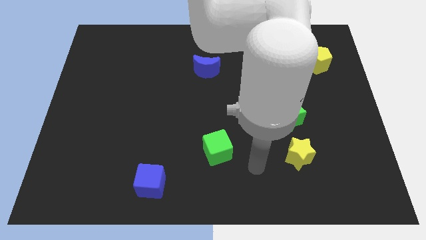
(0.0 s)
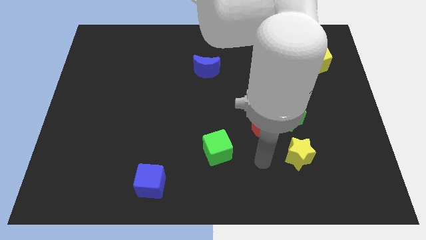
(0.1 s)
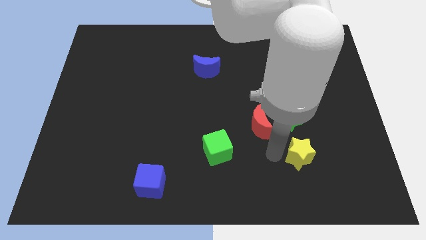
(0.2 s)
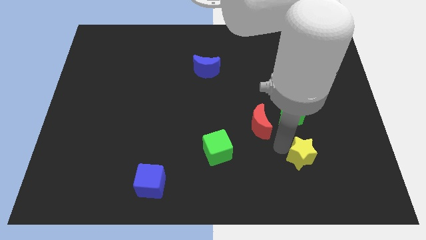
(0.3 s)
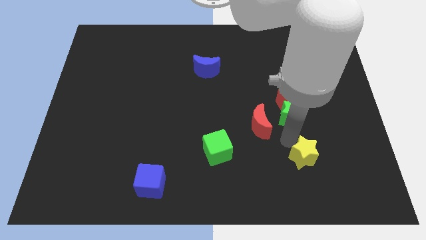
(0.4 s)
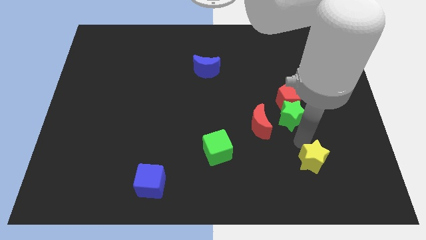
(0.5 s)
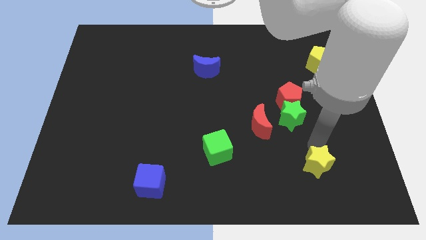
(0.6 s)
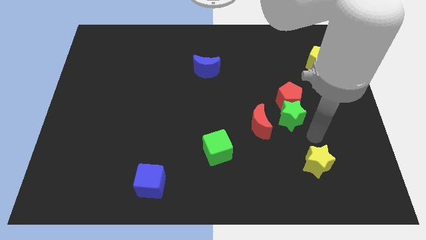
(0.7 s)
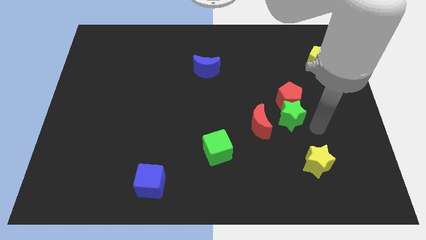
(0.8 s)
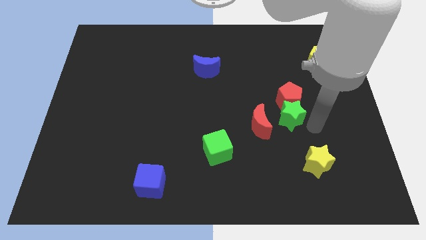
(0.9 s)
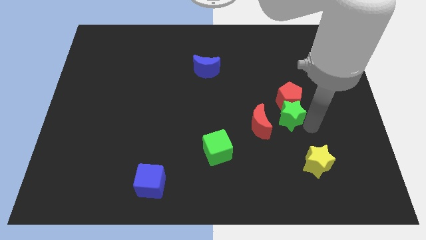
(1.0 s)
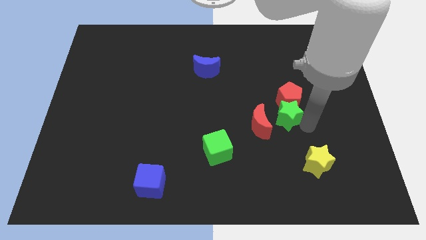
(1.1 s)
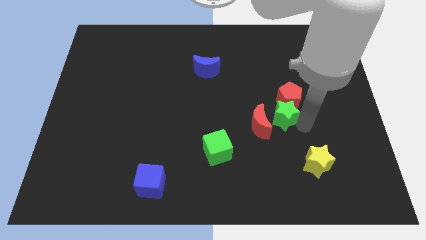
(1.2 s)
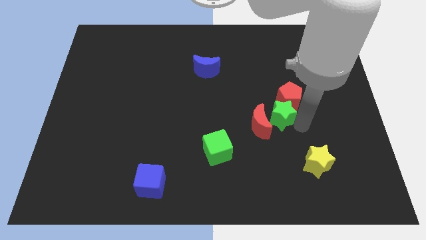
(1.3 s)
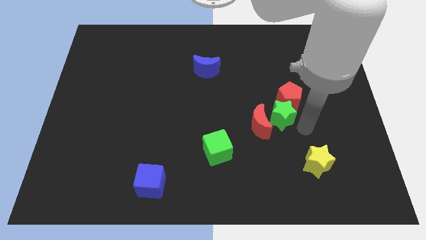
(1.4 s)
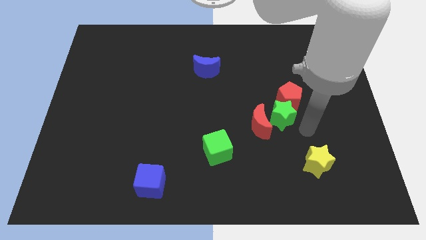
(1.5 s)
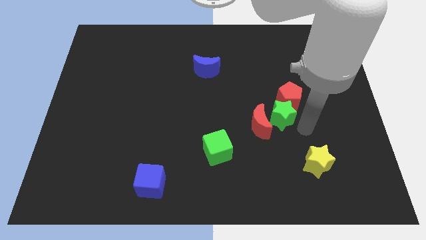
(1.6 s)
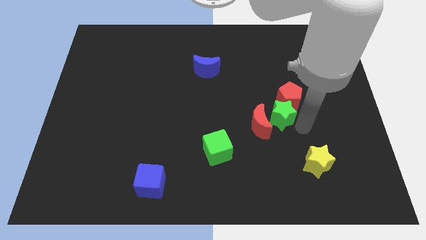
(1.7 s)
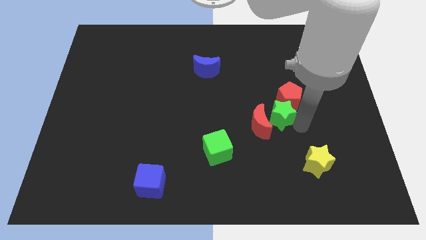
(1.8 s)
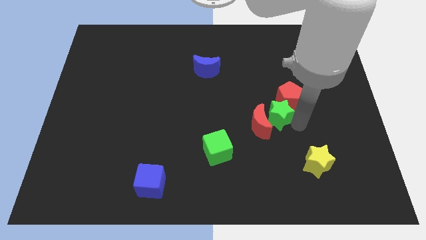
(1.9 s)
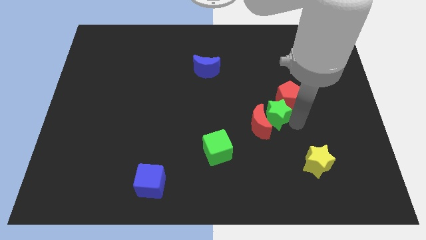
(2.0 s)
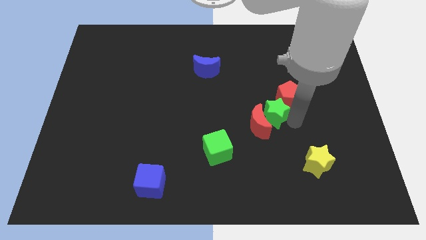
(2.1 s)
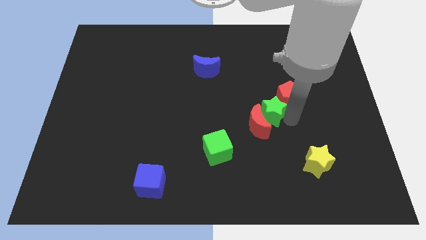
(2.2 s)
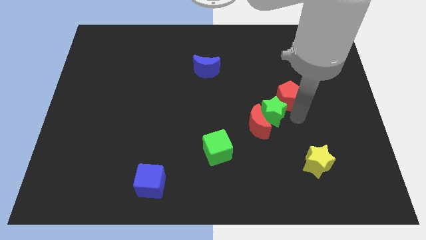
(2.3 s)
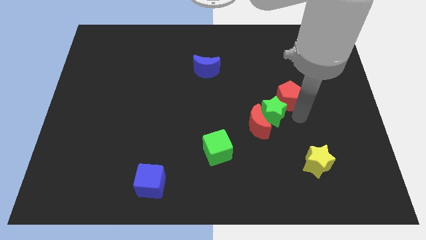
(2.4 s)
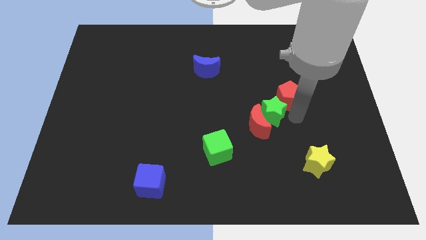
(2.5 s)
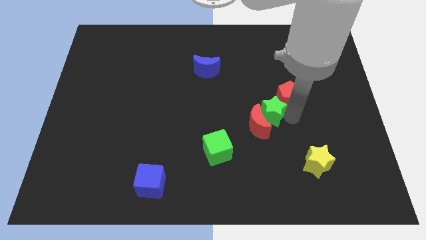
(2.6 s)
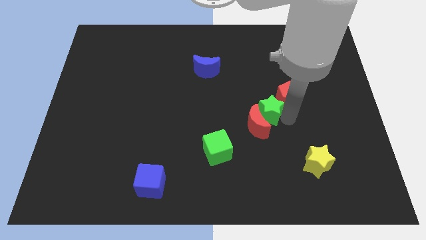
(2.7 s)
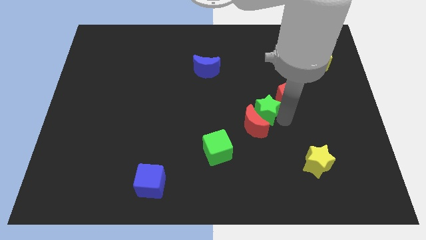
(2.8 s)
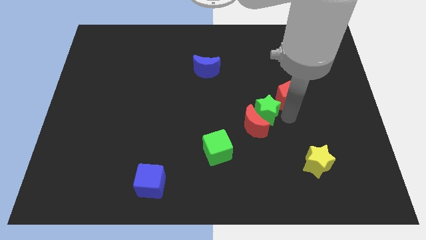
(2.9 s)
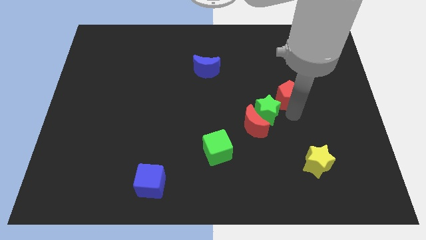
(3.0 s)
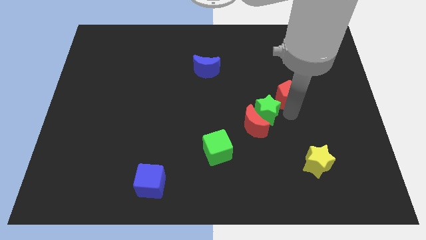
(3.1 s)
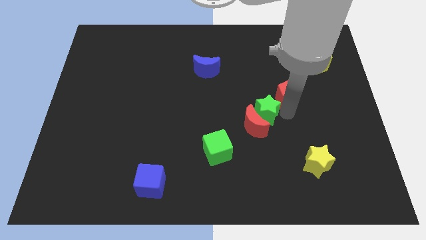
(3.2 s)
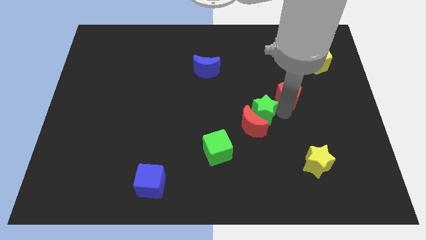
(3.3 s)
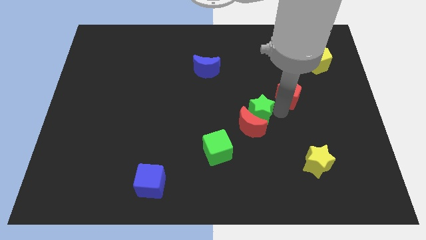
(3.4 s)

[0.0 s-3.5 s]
slide the green star left slightly

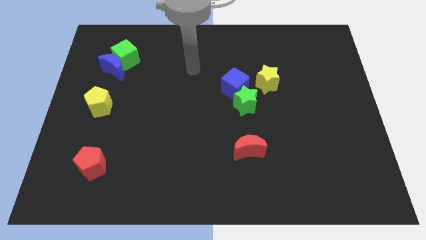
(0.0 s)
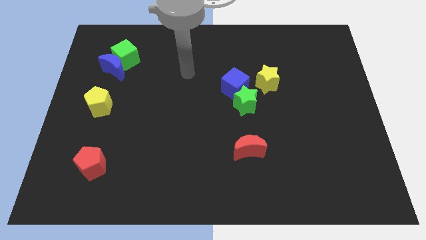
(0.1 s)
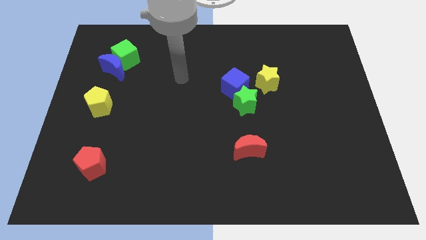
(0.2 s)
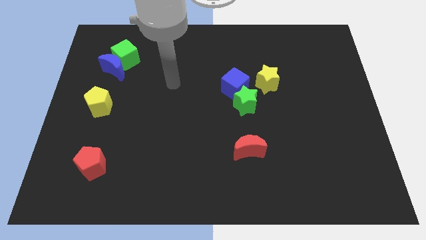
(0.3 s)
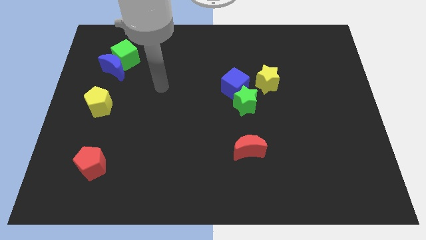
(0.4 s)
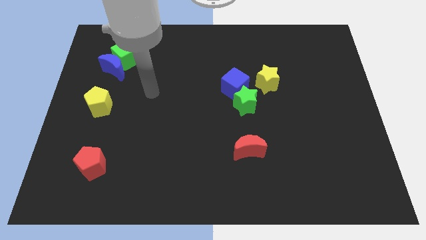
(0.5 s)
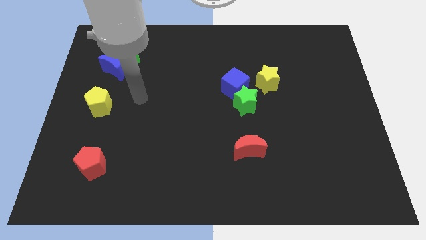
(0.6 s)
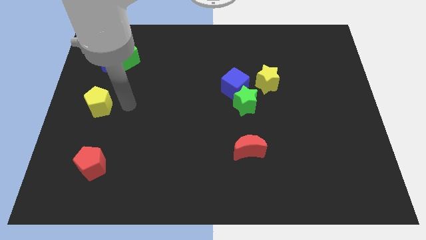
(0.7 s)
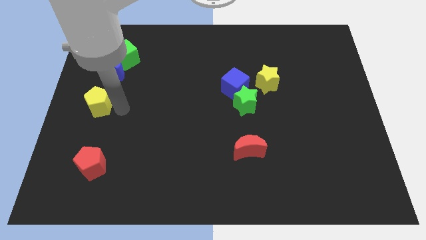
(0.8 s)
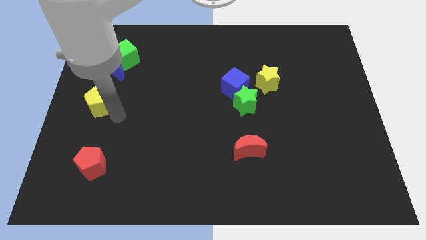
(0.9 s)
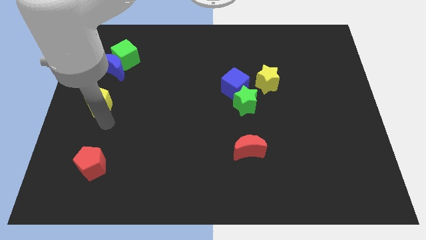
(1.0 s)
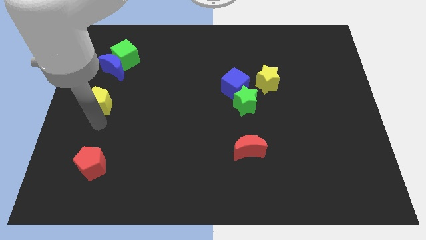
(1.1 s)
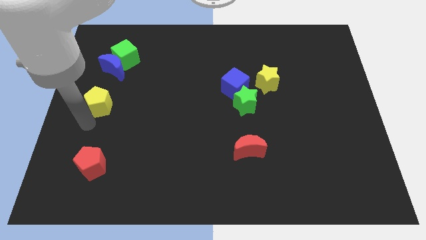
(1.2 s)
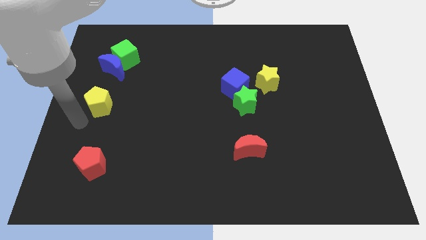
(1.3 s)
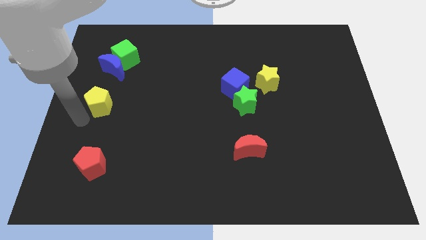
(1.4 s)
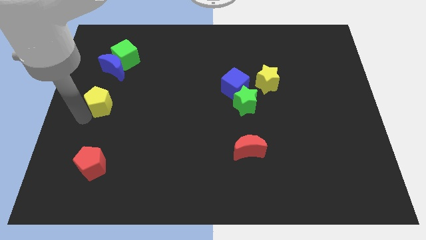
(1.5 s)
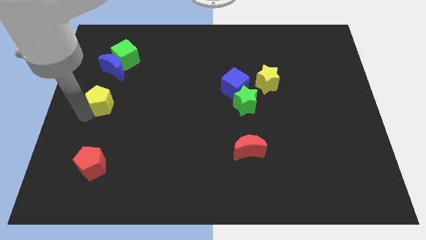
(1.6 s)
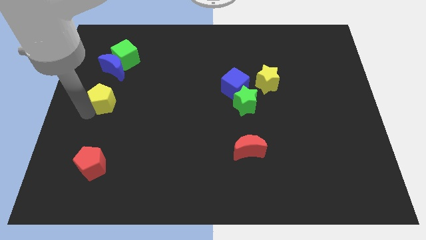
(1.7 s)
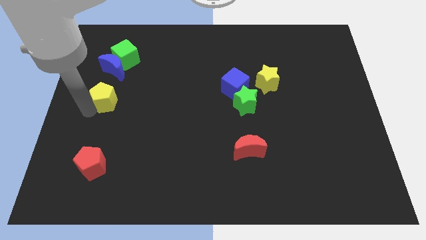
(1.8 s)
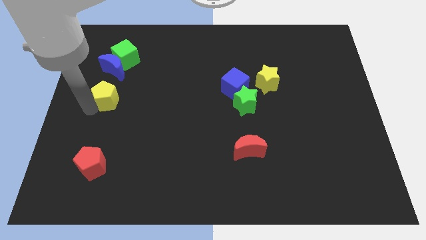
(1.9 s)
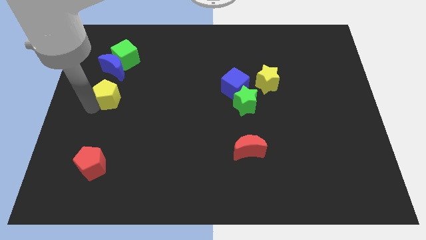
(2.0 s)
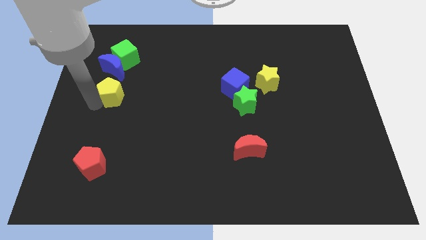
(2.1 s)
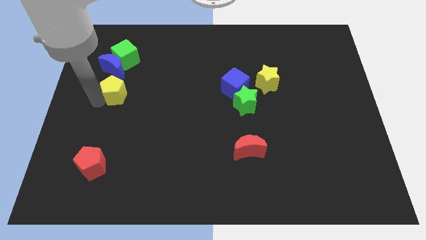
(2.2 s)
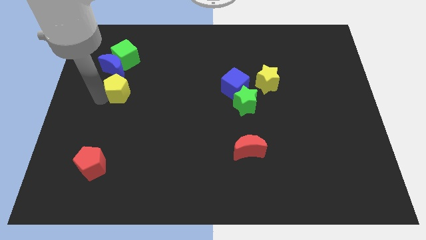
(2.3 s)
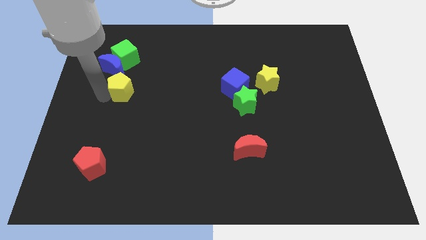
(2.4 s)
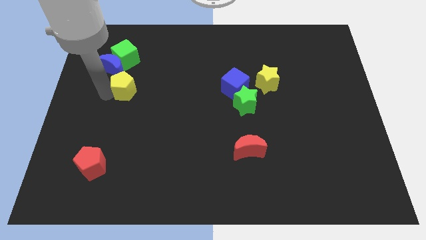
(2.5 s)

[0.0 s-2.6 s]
push the yellow pentagon slightly diagonally up and right

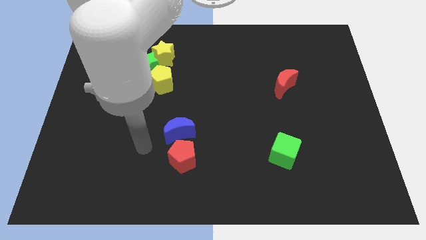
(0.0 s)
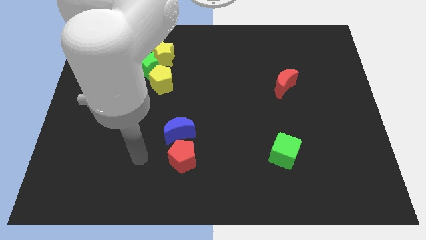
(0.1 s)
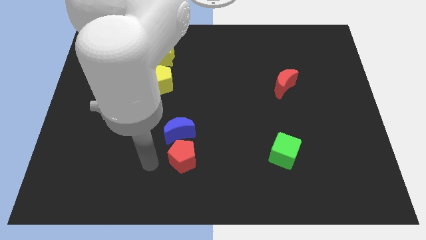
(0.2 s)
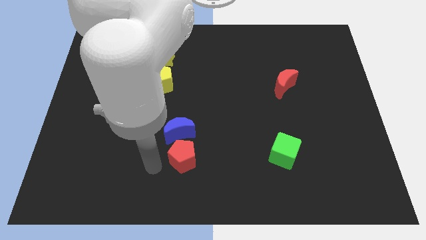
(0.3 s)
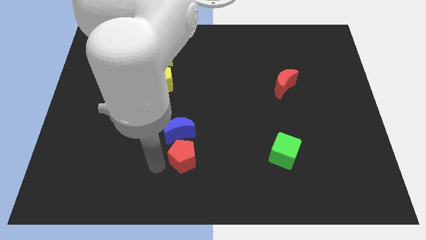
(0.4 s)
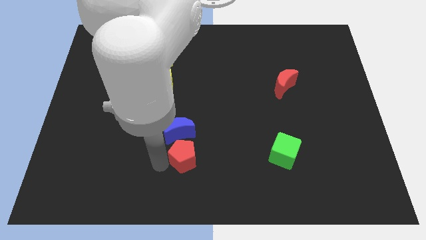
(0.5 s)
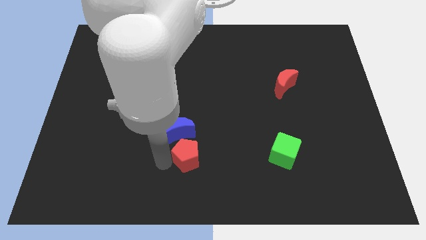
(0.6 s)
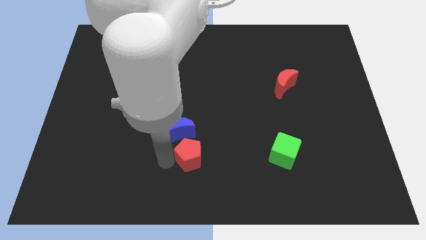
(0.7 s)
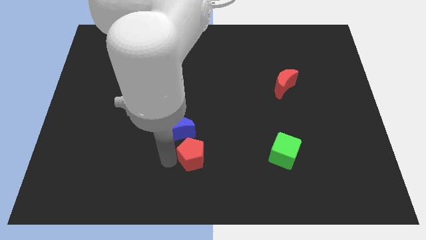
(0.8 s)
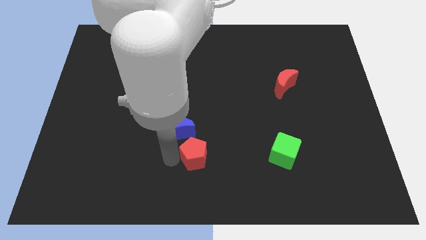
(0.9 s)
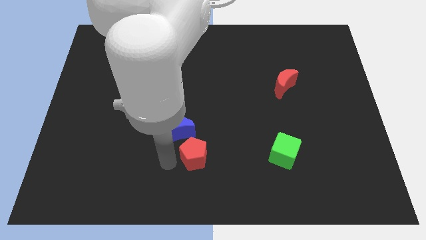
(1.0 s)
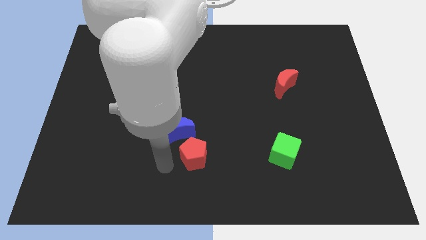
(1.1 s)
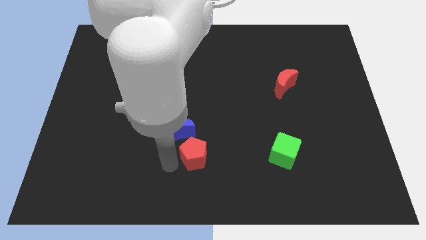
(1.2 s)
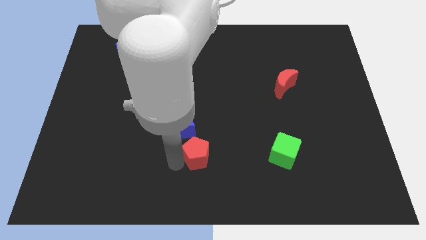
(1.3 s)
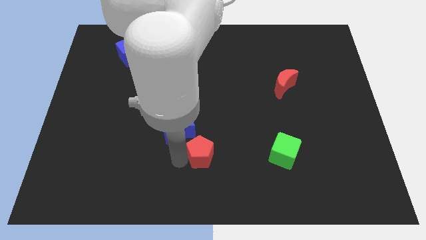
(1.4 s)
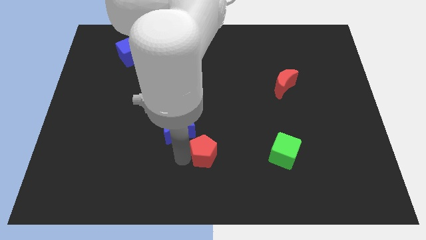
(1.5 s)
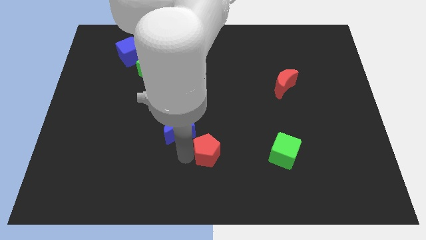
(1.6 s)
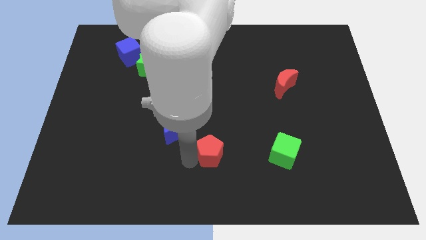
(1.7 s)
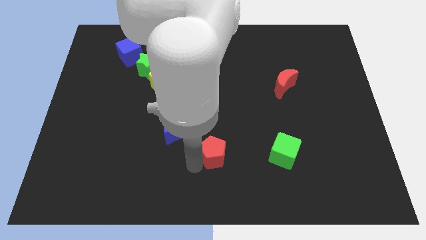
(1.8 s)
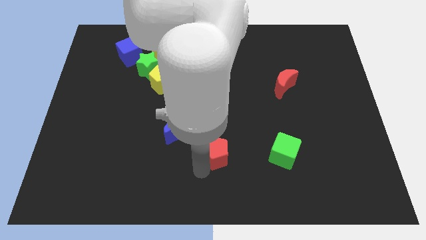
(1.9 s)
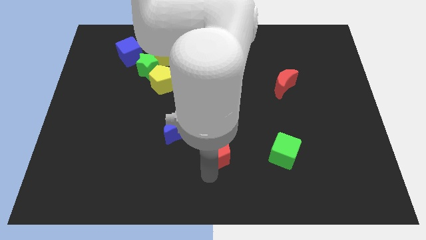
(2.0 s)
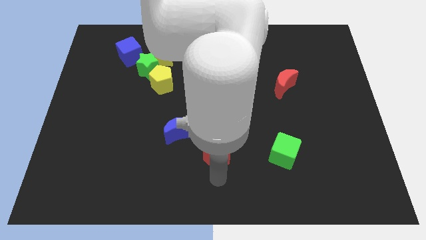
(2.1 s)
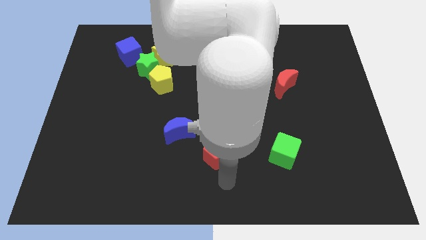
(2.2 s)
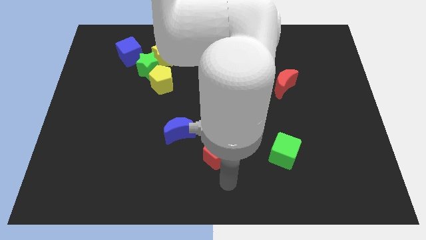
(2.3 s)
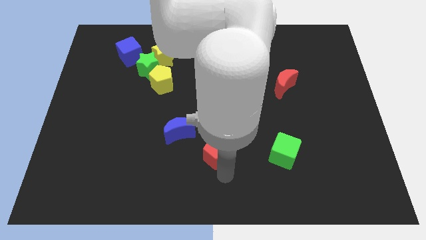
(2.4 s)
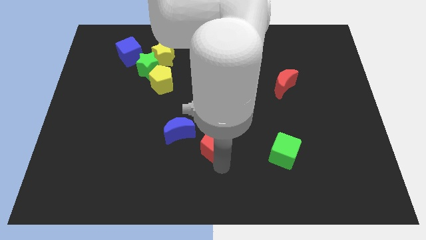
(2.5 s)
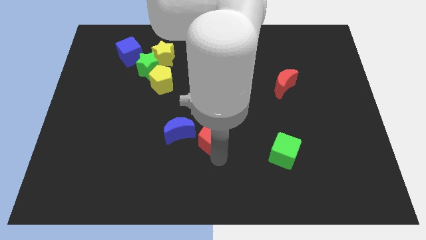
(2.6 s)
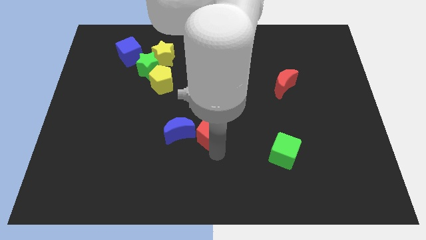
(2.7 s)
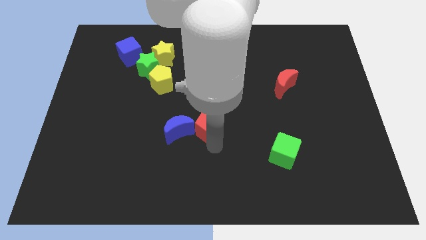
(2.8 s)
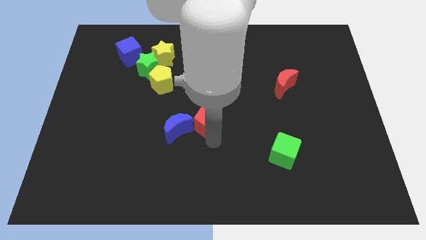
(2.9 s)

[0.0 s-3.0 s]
move the red pentagon up a little
